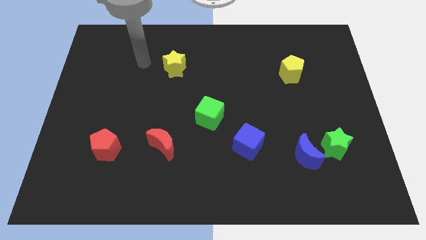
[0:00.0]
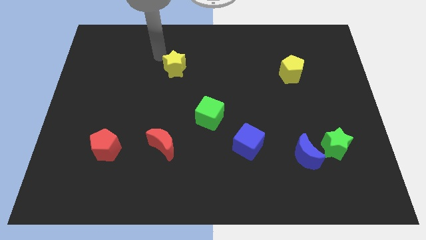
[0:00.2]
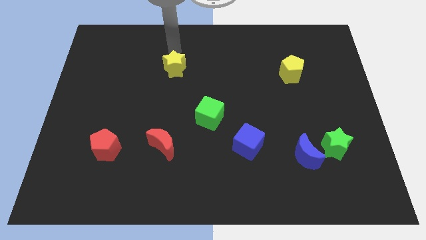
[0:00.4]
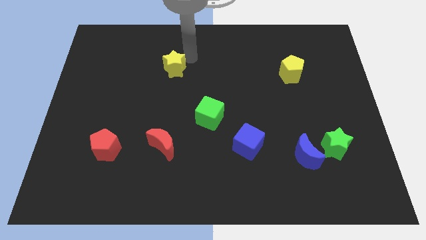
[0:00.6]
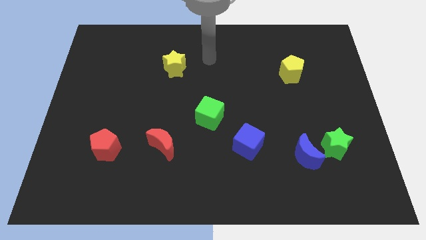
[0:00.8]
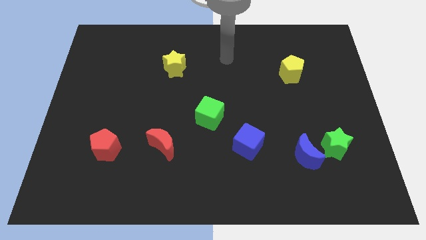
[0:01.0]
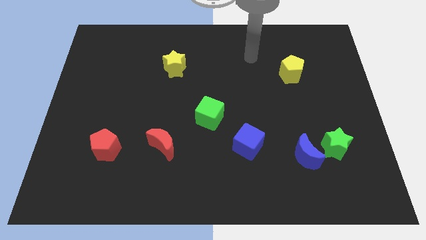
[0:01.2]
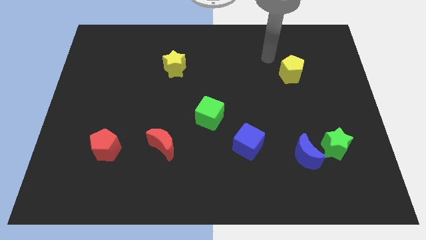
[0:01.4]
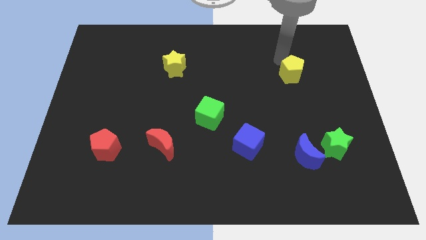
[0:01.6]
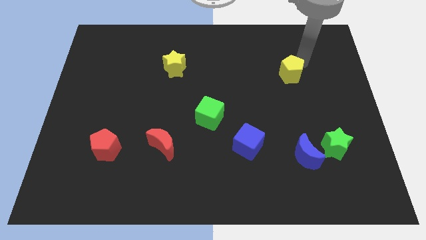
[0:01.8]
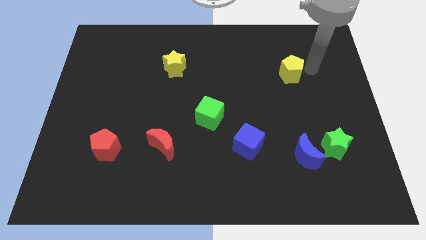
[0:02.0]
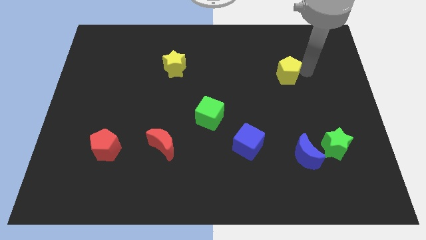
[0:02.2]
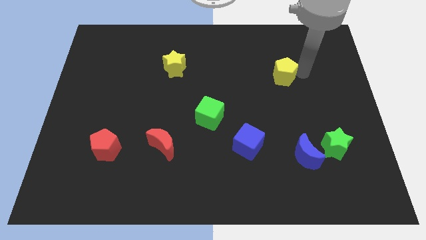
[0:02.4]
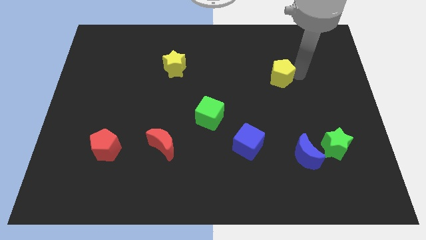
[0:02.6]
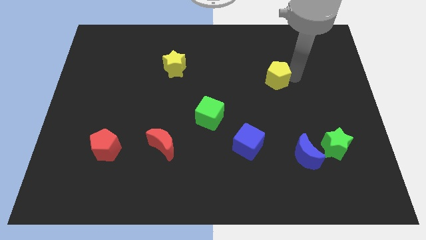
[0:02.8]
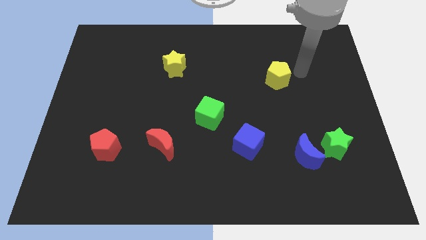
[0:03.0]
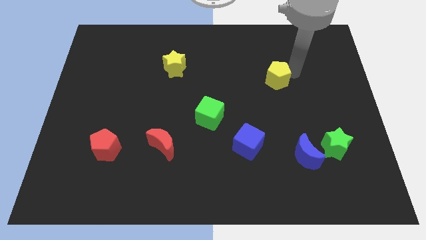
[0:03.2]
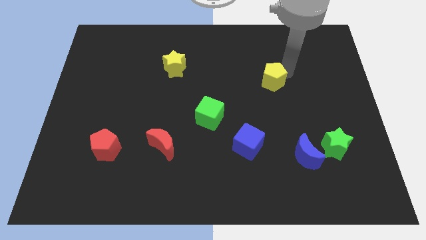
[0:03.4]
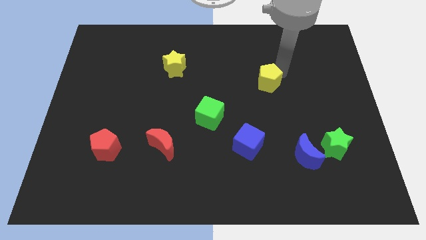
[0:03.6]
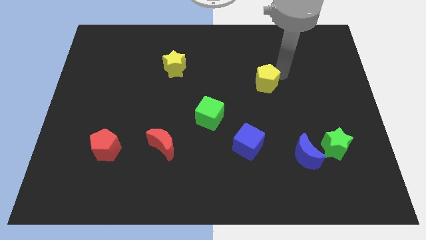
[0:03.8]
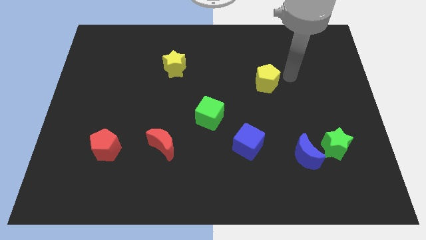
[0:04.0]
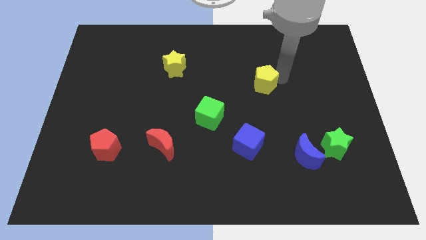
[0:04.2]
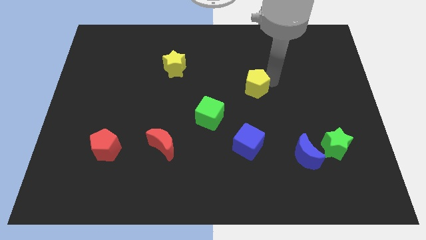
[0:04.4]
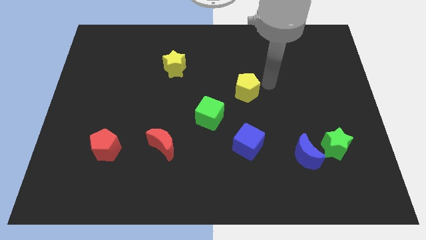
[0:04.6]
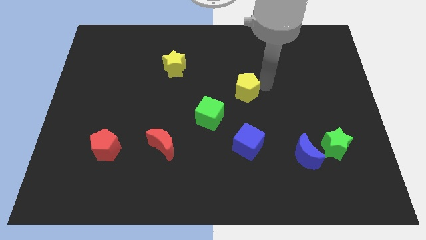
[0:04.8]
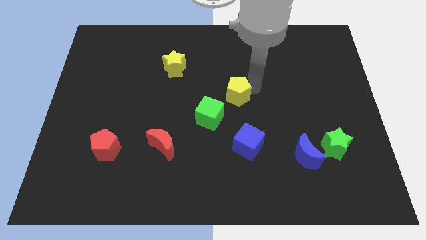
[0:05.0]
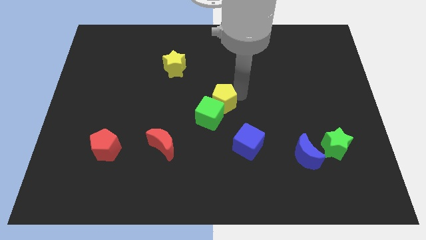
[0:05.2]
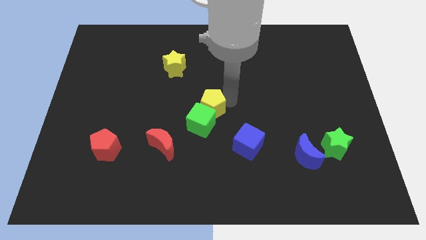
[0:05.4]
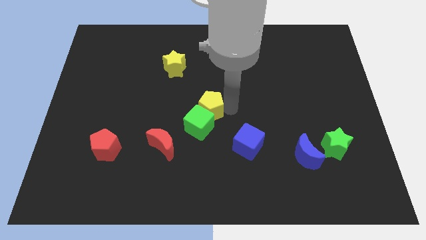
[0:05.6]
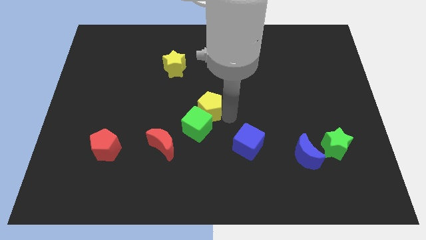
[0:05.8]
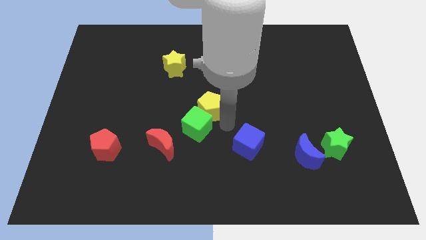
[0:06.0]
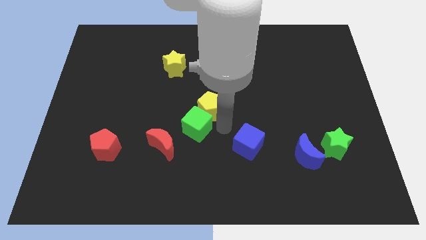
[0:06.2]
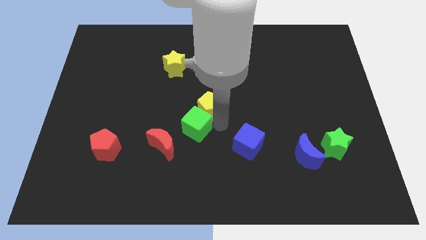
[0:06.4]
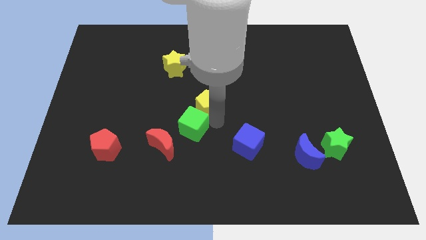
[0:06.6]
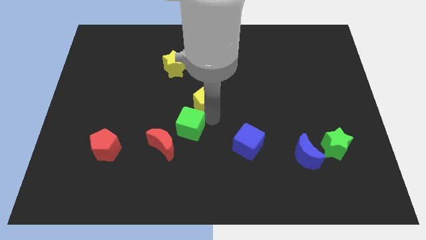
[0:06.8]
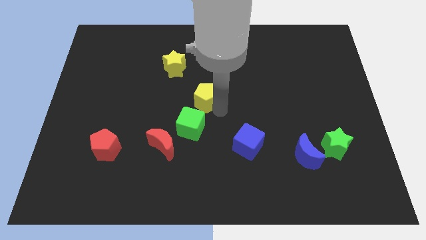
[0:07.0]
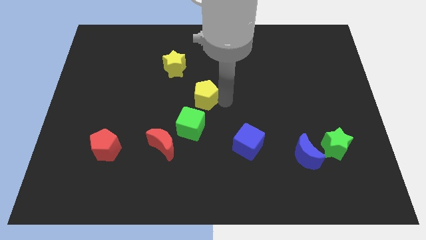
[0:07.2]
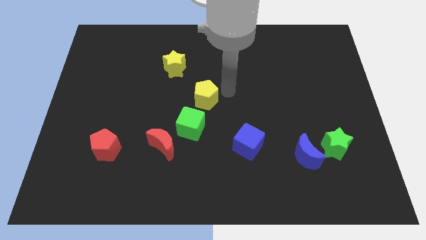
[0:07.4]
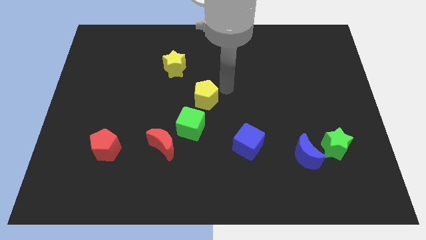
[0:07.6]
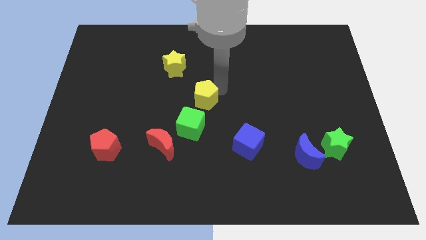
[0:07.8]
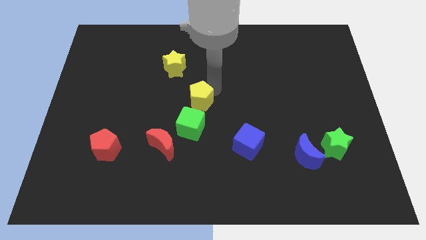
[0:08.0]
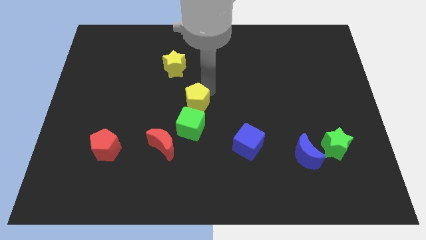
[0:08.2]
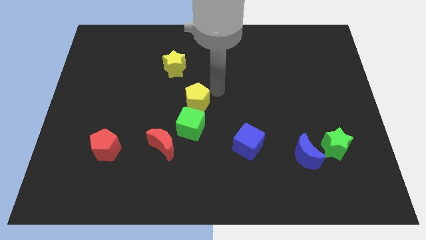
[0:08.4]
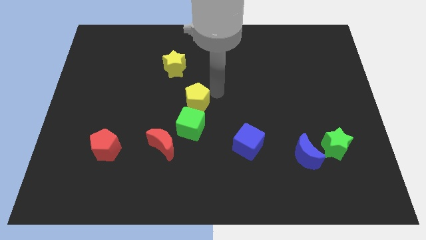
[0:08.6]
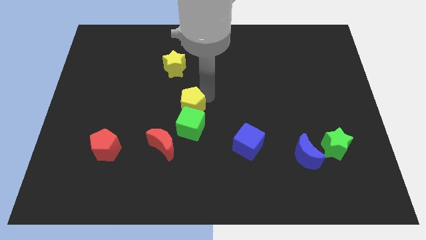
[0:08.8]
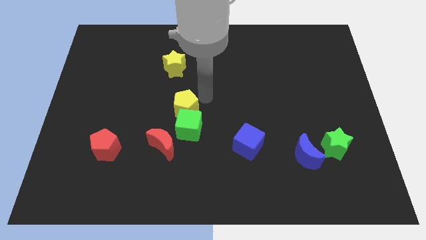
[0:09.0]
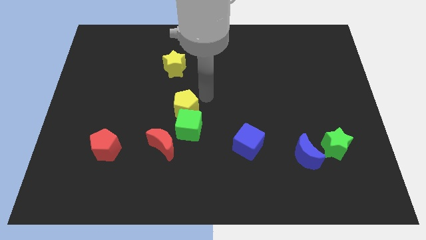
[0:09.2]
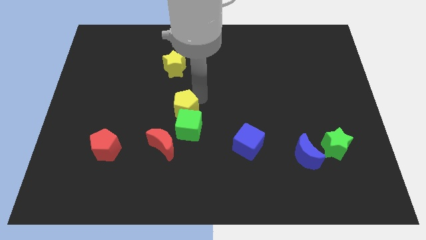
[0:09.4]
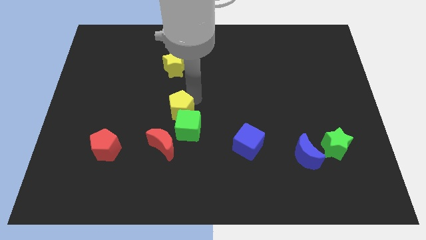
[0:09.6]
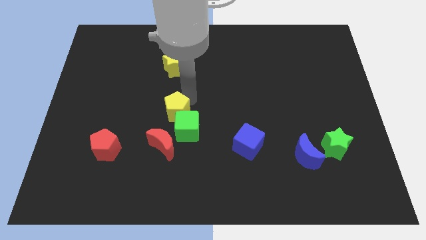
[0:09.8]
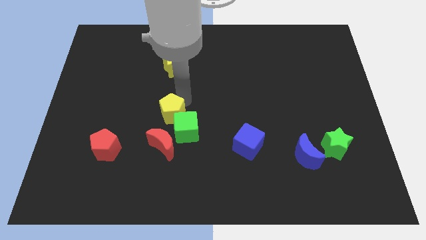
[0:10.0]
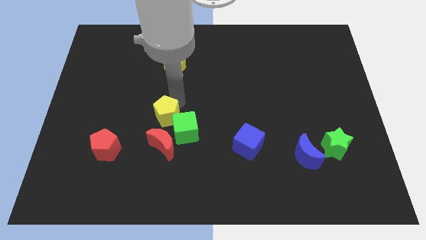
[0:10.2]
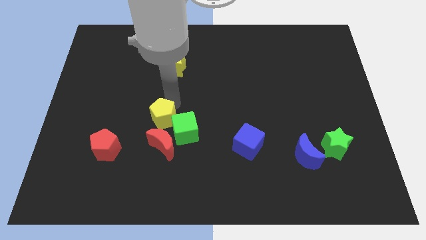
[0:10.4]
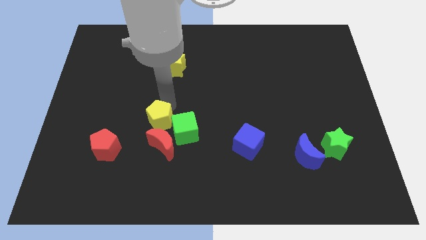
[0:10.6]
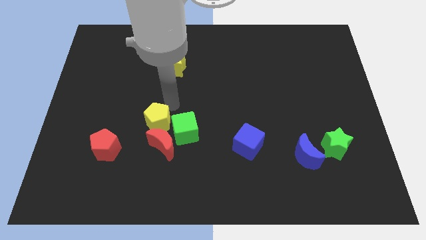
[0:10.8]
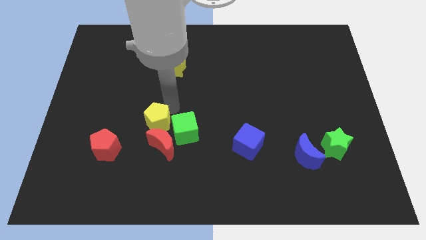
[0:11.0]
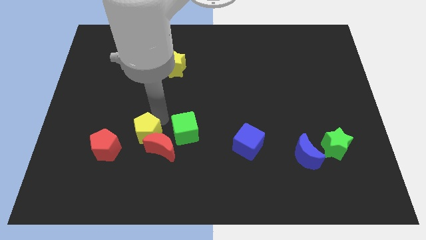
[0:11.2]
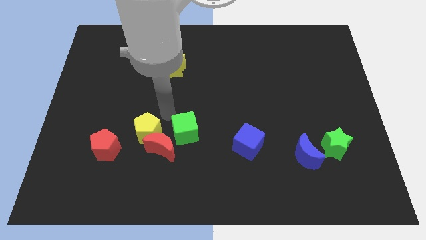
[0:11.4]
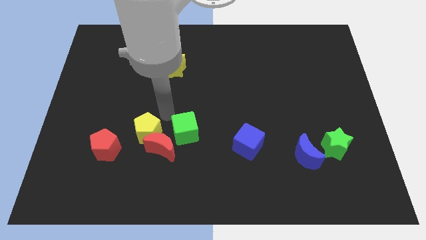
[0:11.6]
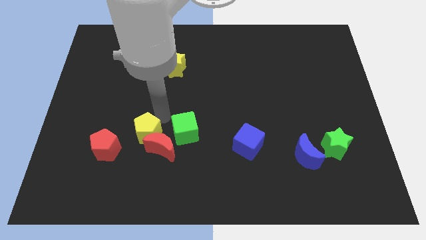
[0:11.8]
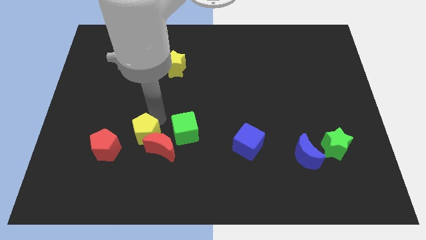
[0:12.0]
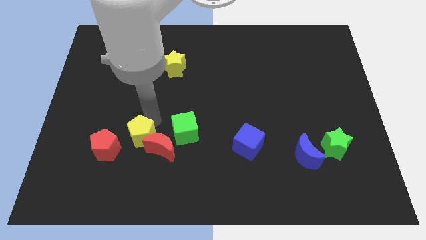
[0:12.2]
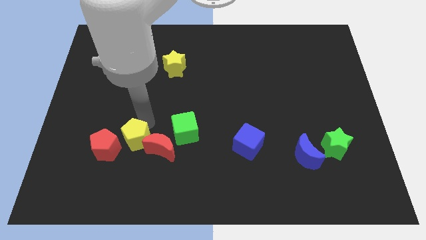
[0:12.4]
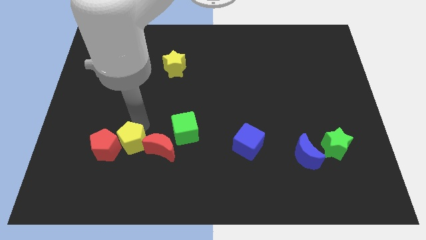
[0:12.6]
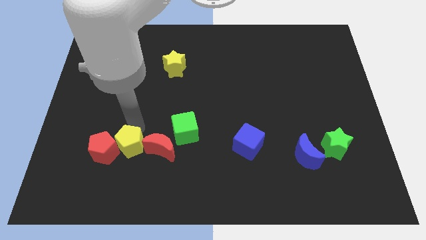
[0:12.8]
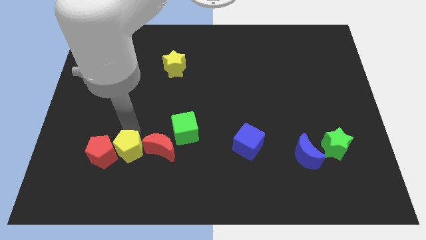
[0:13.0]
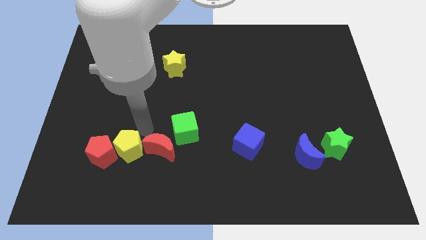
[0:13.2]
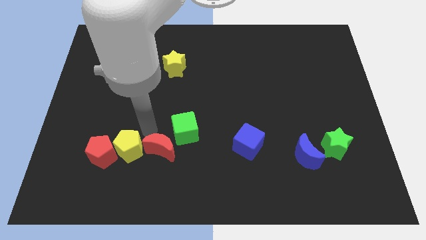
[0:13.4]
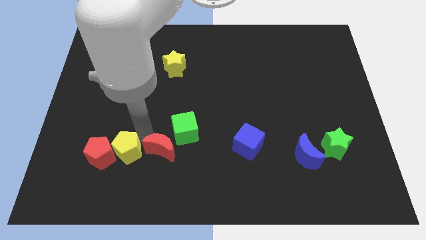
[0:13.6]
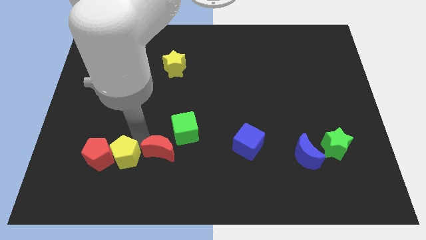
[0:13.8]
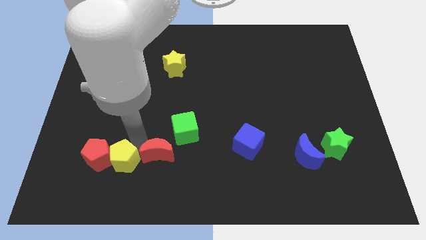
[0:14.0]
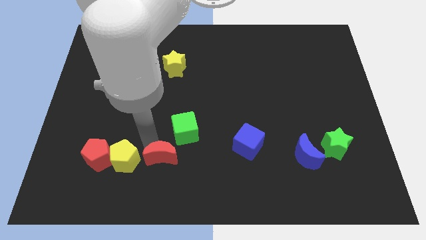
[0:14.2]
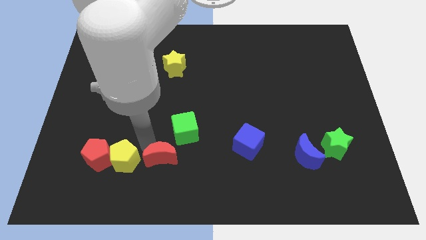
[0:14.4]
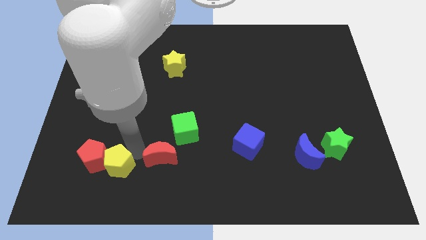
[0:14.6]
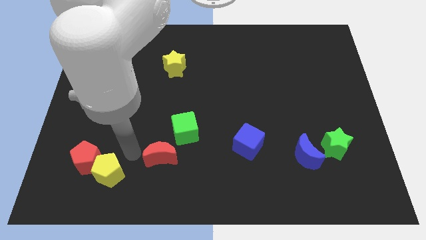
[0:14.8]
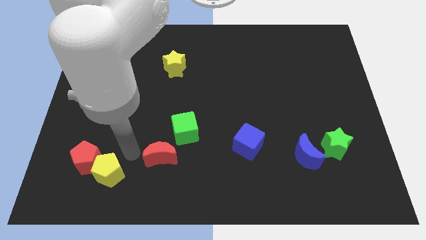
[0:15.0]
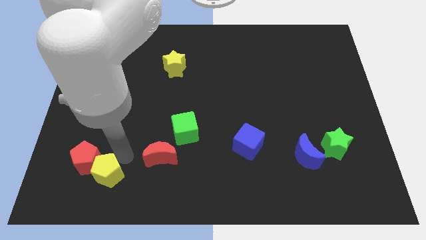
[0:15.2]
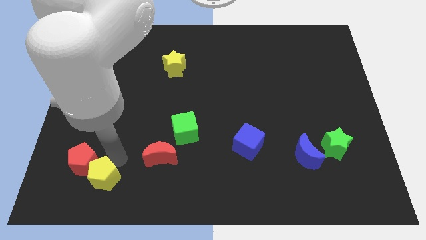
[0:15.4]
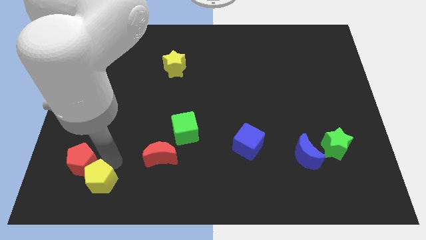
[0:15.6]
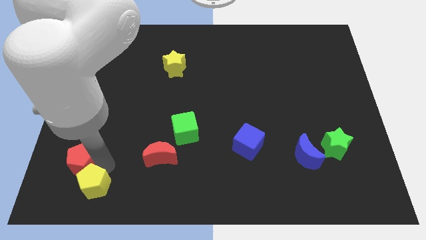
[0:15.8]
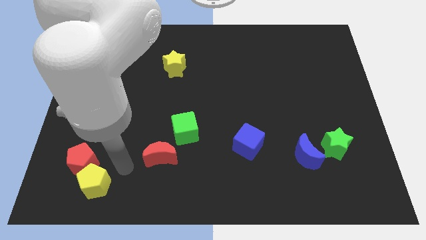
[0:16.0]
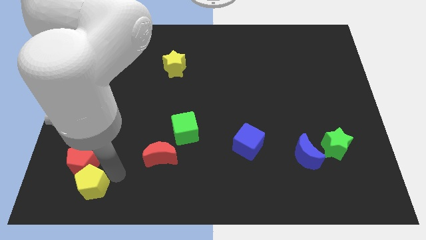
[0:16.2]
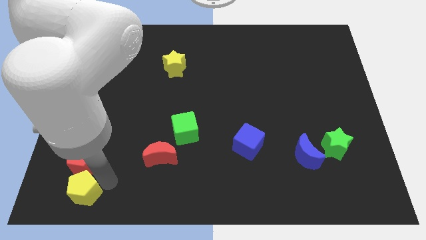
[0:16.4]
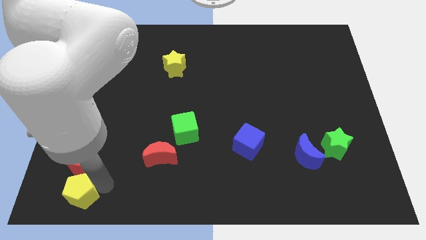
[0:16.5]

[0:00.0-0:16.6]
move the yellow pentagon to the bottom left
